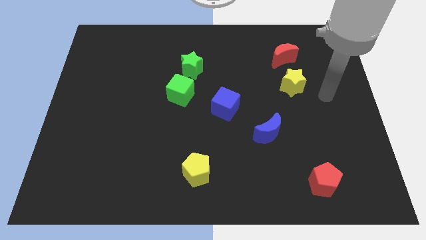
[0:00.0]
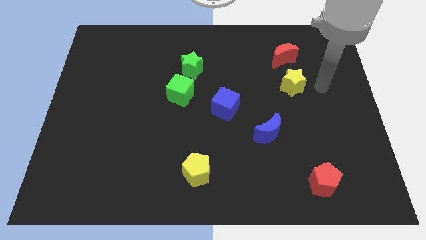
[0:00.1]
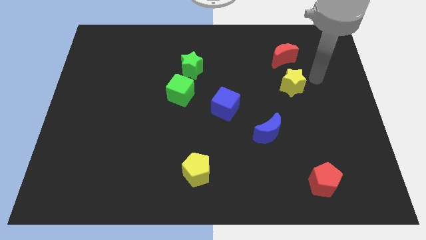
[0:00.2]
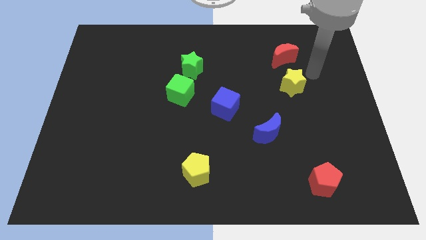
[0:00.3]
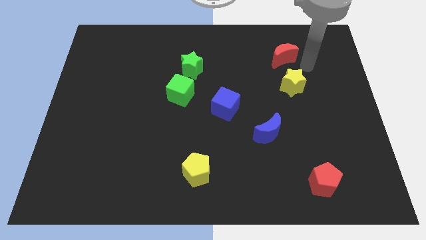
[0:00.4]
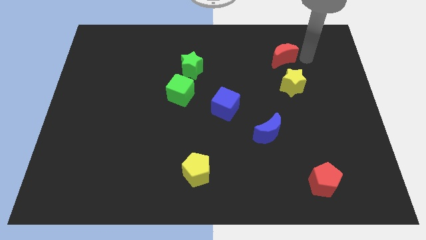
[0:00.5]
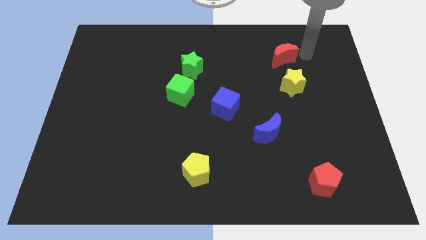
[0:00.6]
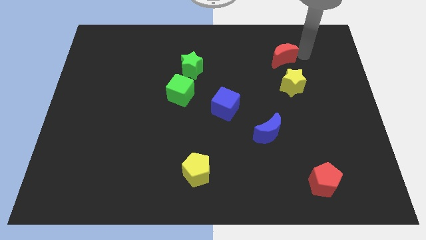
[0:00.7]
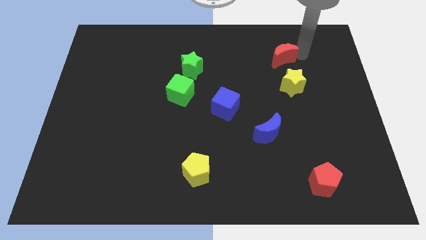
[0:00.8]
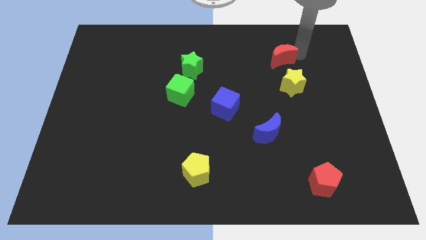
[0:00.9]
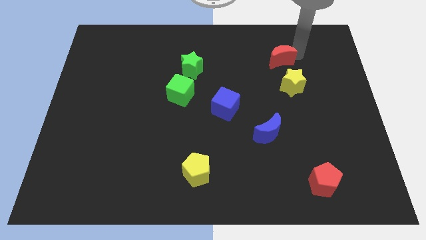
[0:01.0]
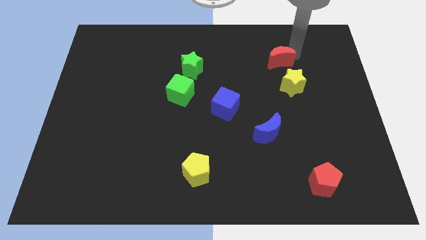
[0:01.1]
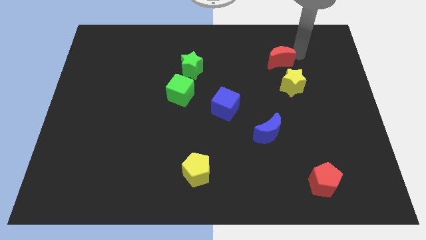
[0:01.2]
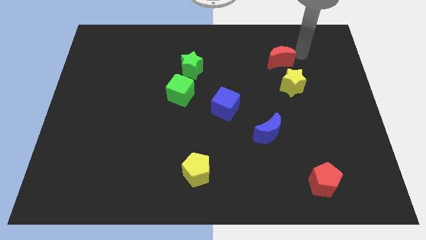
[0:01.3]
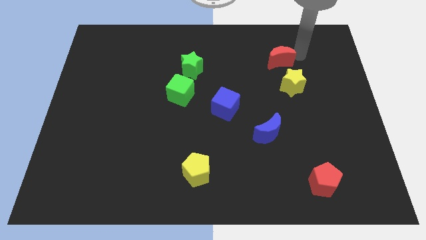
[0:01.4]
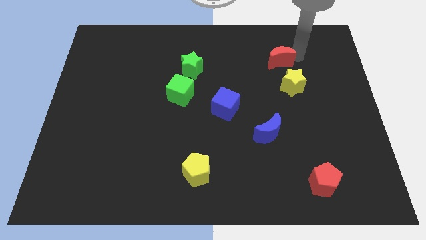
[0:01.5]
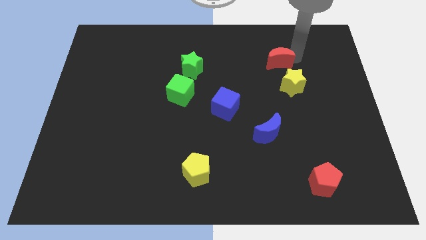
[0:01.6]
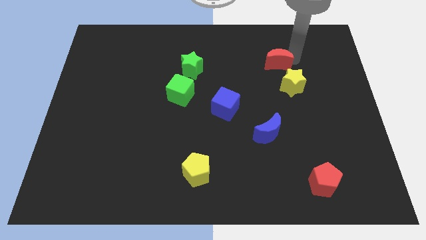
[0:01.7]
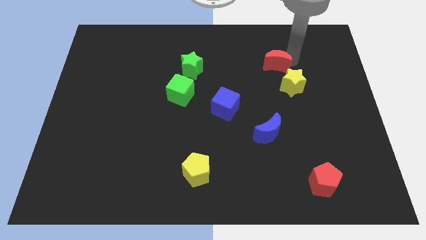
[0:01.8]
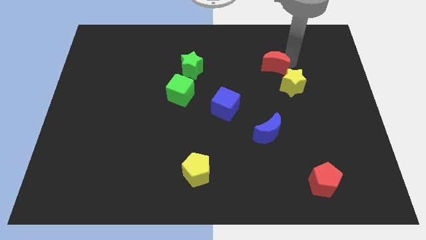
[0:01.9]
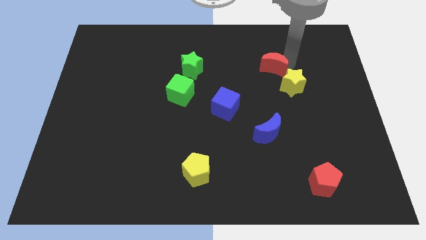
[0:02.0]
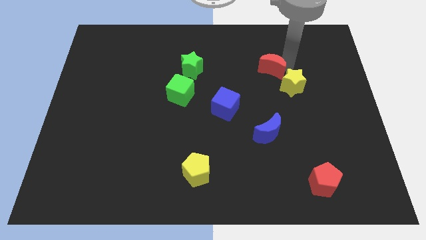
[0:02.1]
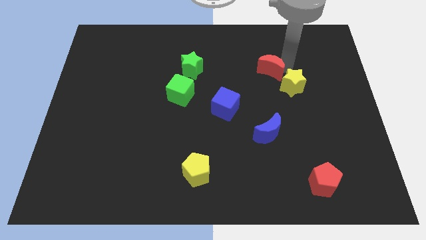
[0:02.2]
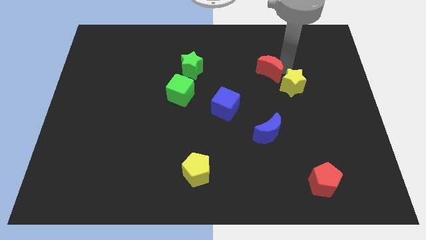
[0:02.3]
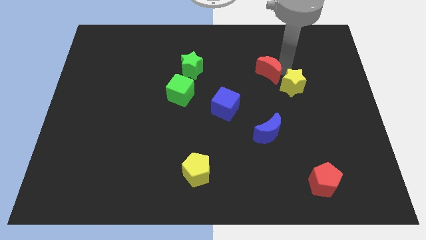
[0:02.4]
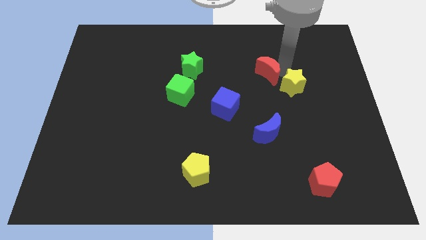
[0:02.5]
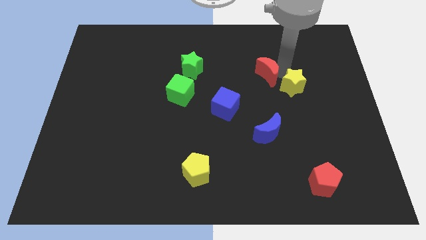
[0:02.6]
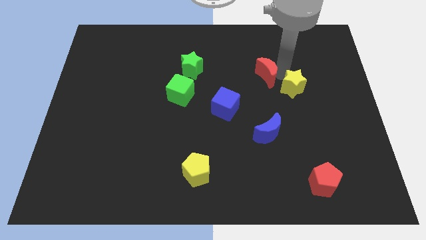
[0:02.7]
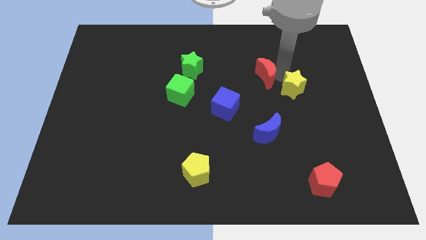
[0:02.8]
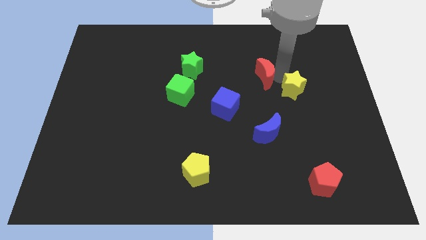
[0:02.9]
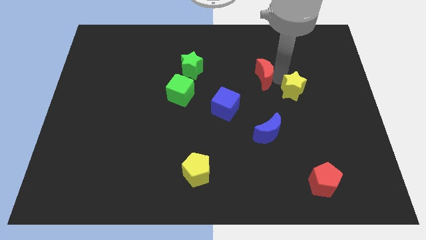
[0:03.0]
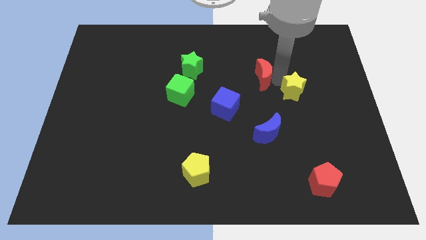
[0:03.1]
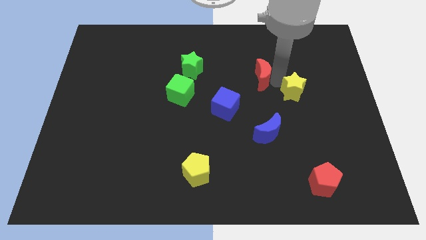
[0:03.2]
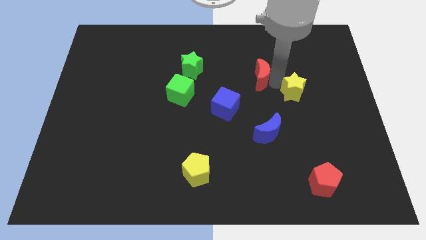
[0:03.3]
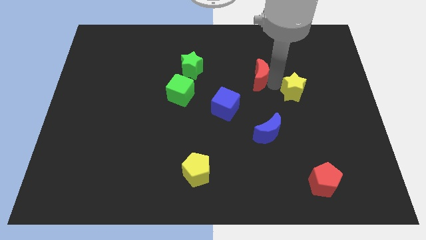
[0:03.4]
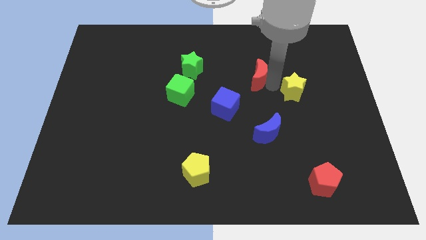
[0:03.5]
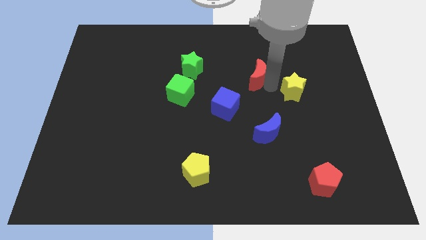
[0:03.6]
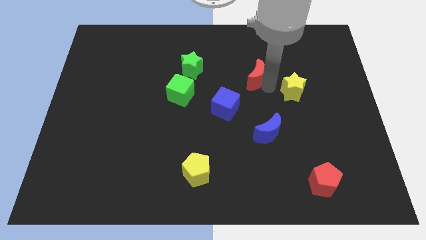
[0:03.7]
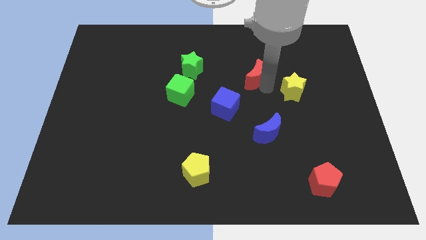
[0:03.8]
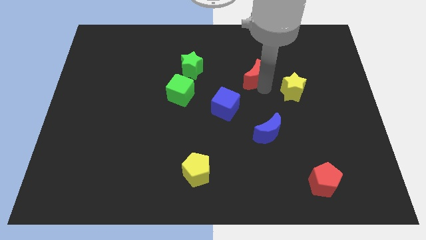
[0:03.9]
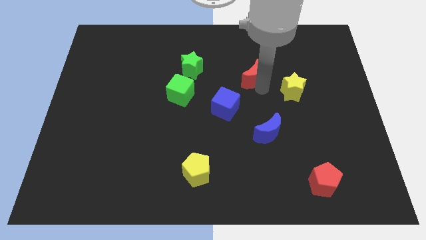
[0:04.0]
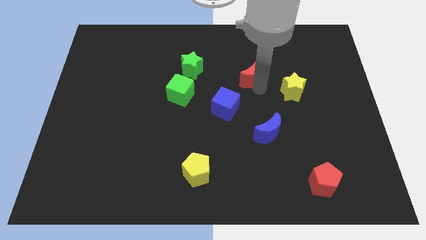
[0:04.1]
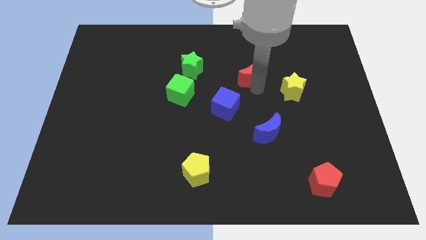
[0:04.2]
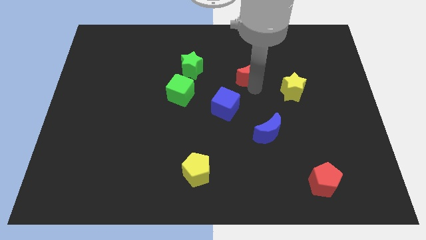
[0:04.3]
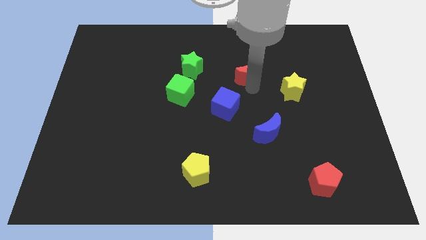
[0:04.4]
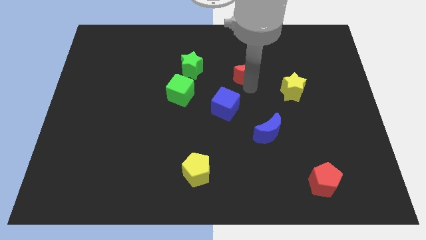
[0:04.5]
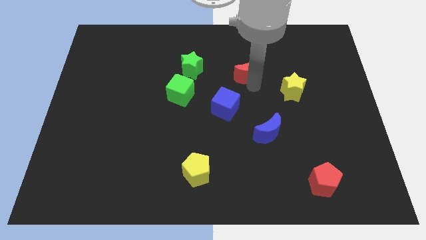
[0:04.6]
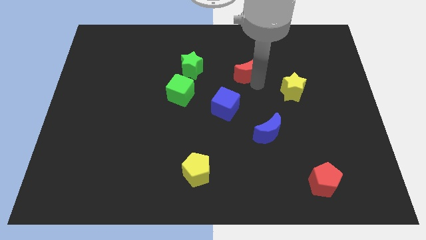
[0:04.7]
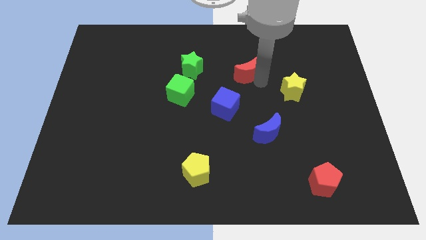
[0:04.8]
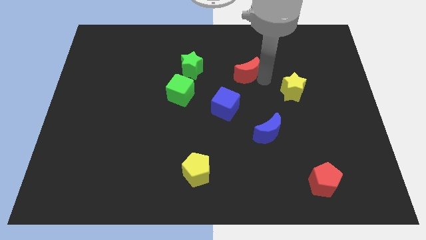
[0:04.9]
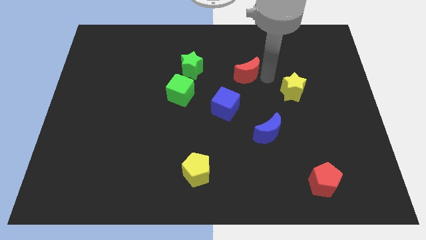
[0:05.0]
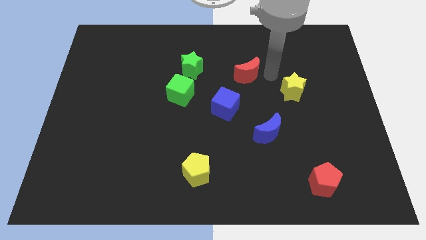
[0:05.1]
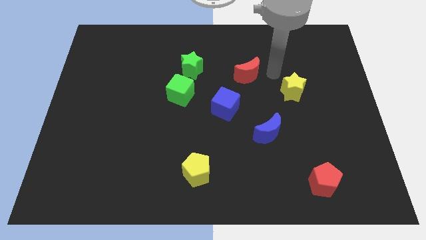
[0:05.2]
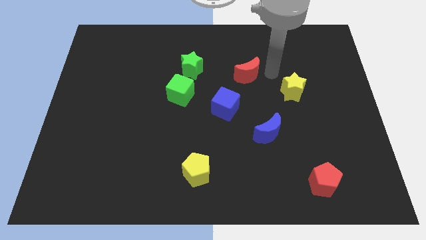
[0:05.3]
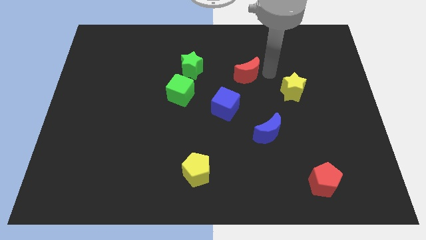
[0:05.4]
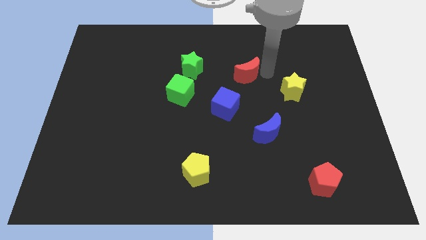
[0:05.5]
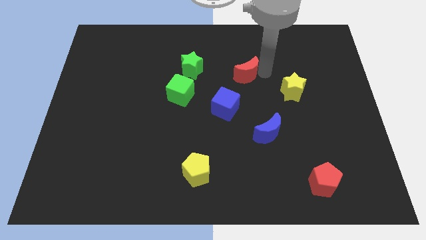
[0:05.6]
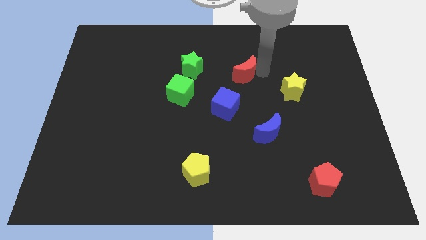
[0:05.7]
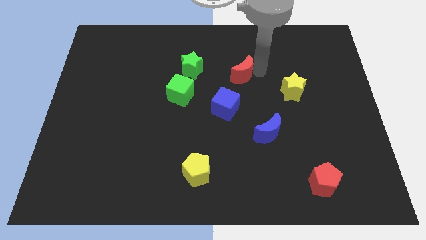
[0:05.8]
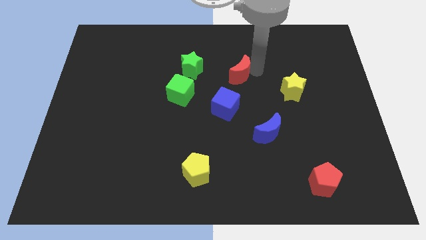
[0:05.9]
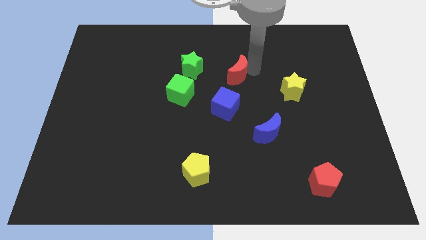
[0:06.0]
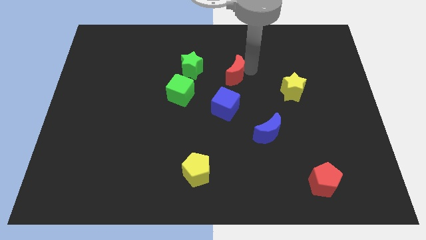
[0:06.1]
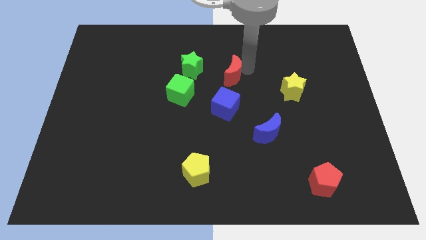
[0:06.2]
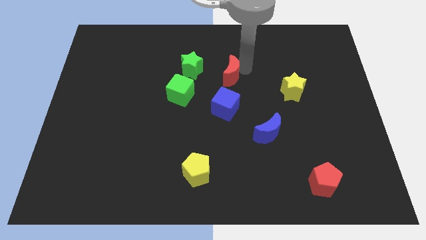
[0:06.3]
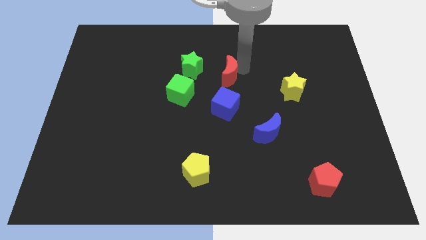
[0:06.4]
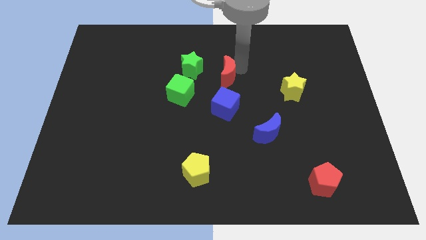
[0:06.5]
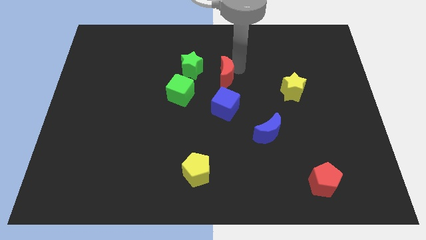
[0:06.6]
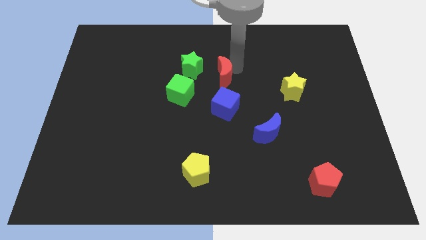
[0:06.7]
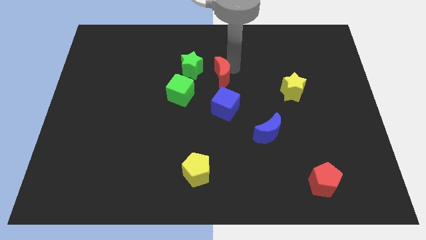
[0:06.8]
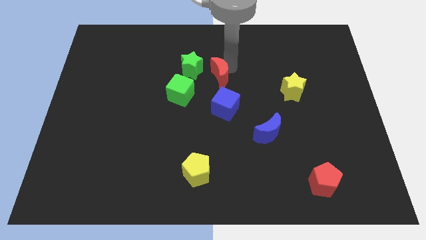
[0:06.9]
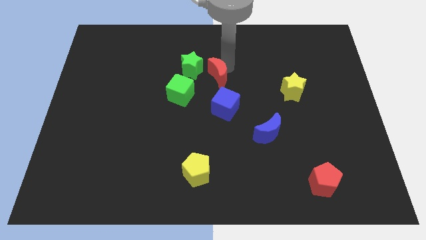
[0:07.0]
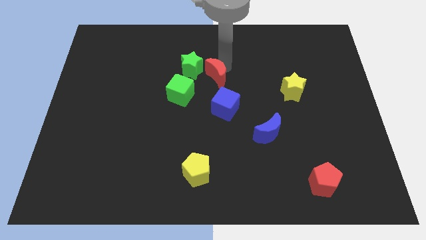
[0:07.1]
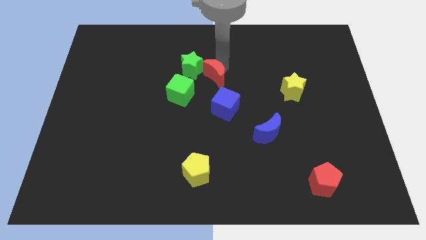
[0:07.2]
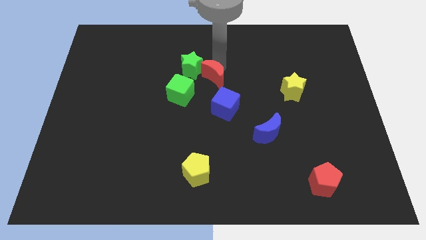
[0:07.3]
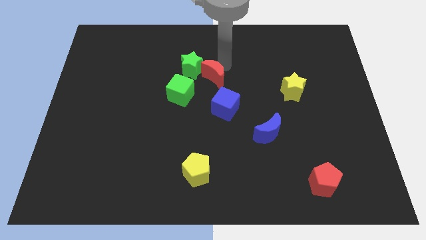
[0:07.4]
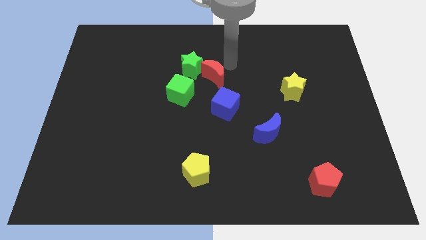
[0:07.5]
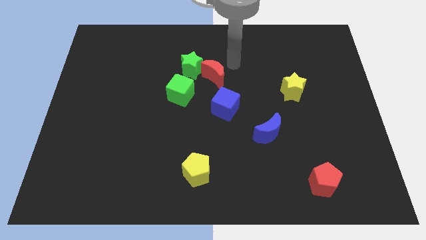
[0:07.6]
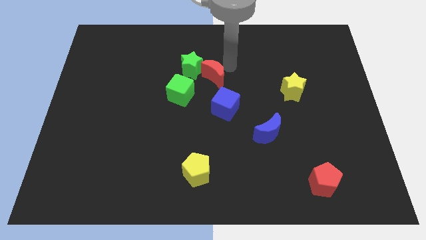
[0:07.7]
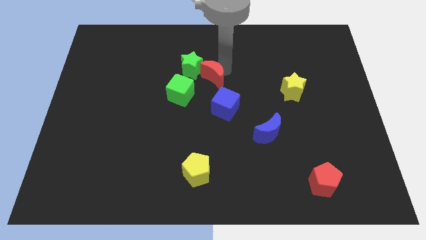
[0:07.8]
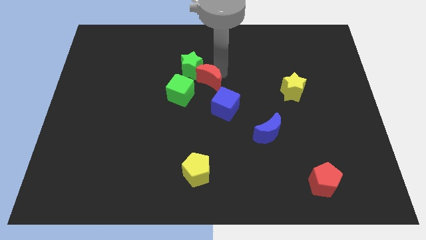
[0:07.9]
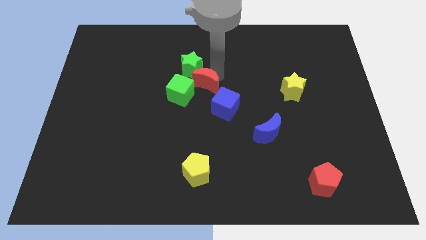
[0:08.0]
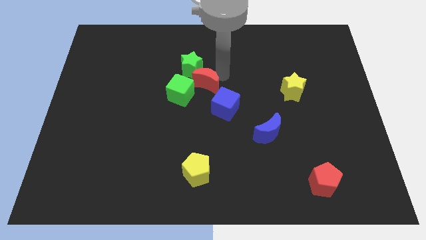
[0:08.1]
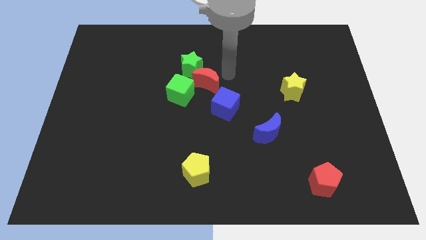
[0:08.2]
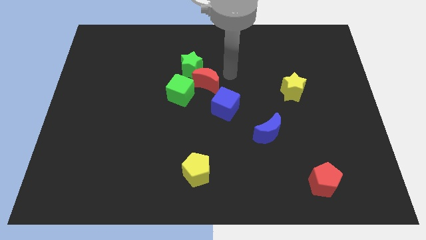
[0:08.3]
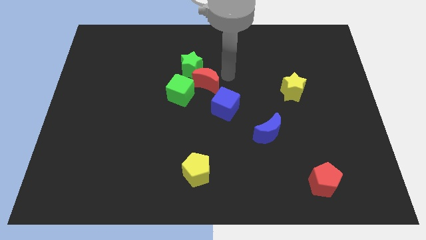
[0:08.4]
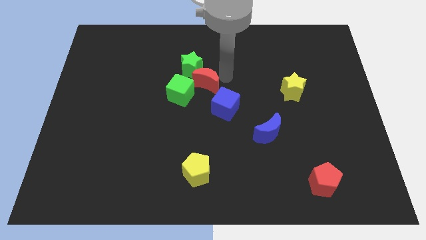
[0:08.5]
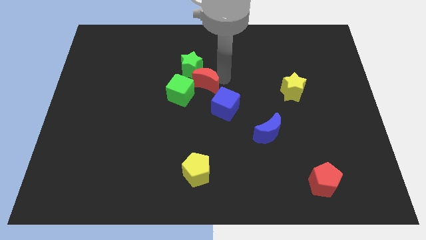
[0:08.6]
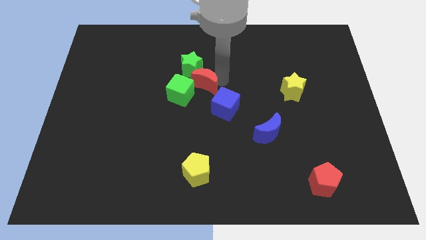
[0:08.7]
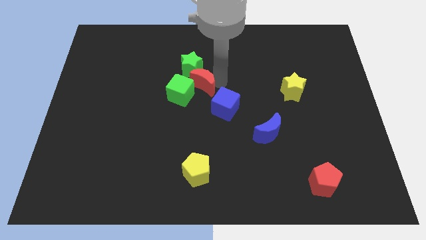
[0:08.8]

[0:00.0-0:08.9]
push the red moon close to the green cube
